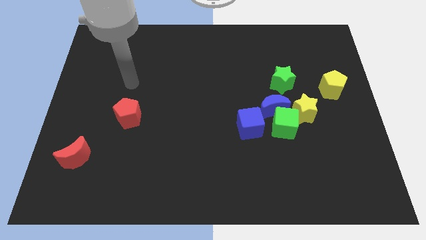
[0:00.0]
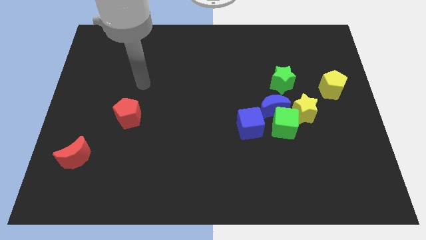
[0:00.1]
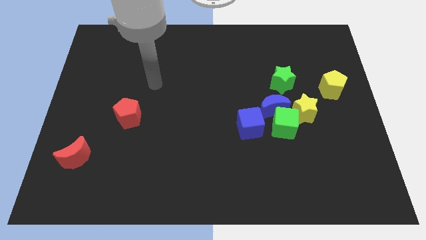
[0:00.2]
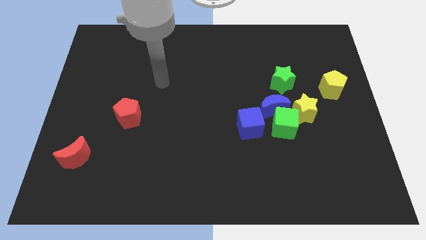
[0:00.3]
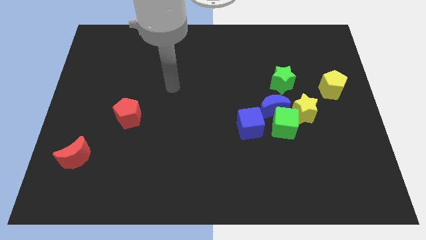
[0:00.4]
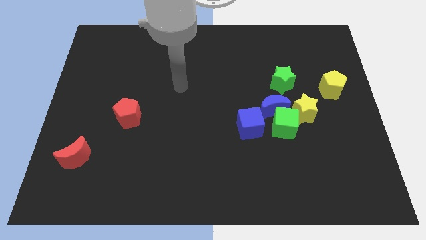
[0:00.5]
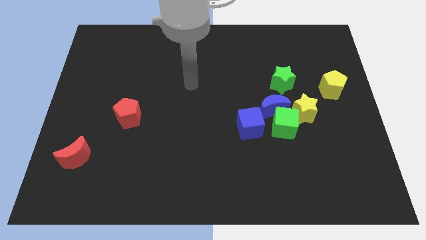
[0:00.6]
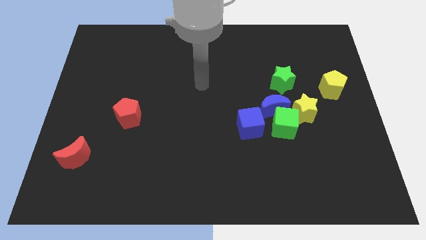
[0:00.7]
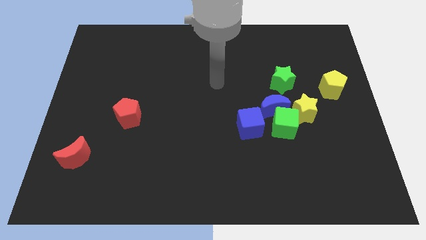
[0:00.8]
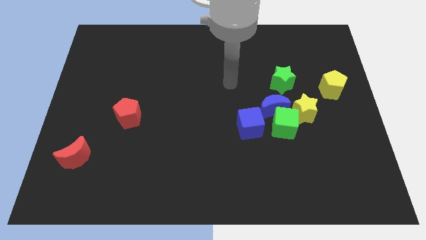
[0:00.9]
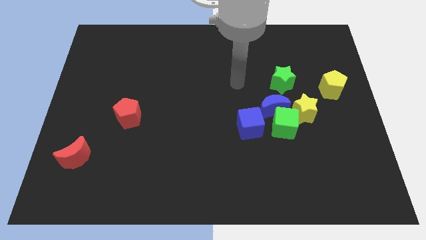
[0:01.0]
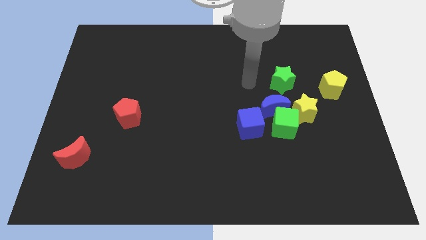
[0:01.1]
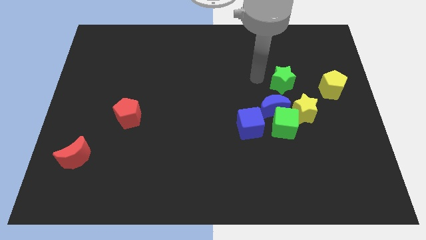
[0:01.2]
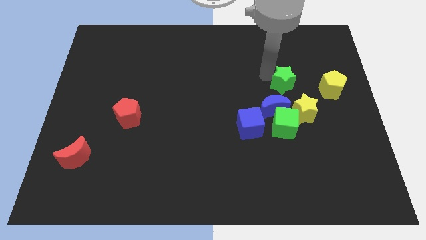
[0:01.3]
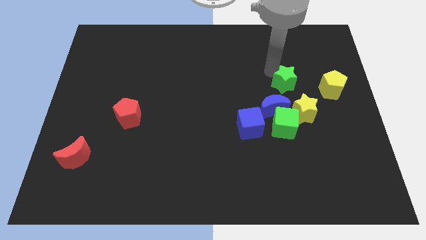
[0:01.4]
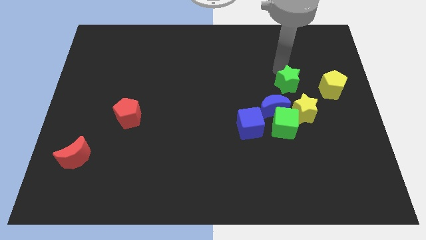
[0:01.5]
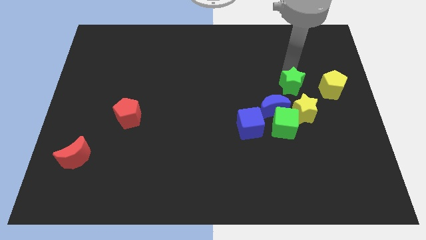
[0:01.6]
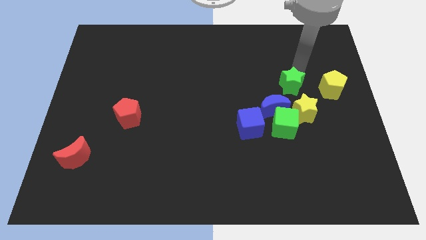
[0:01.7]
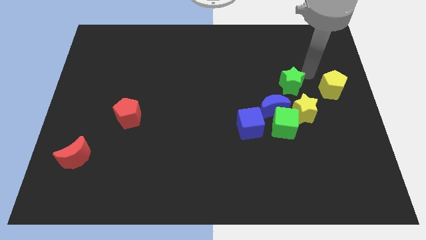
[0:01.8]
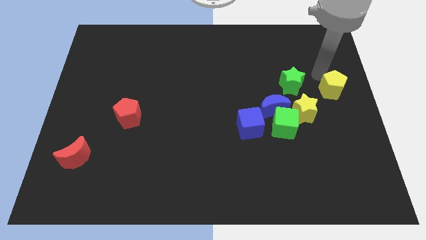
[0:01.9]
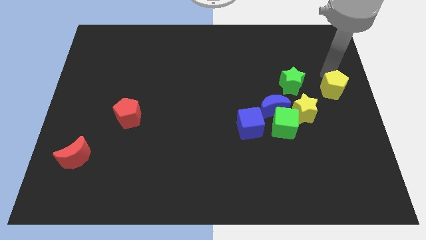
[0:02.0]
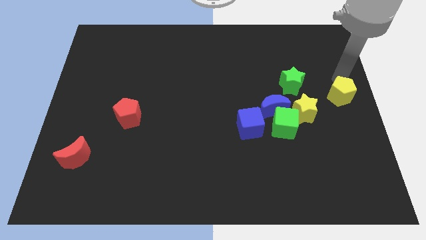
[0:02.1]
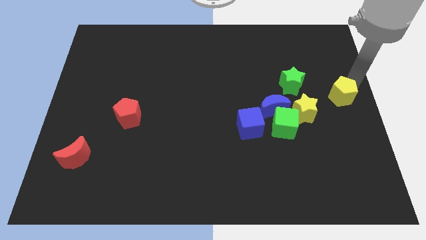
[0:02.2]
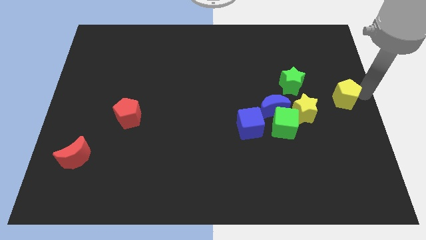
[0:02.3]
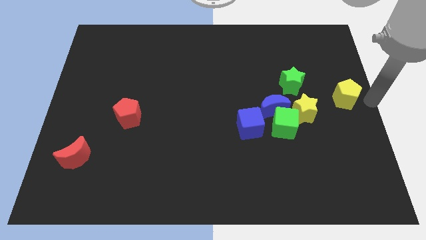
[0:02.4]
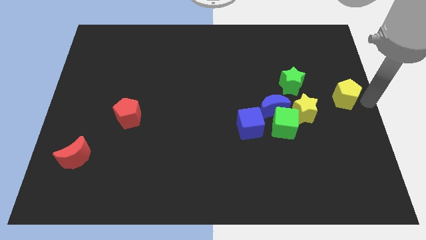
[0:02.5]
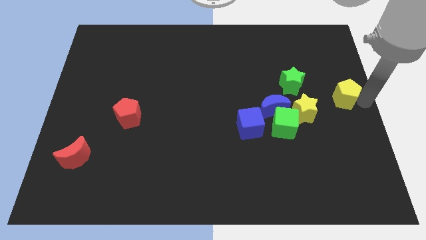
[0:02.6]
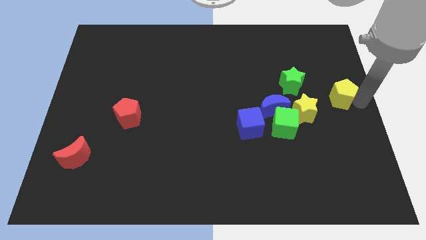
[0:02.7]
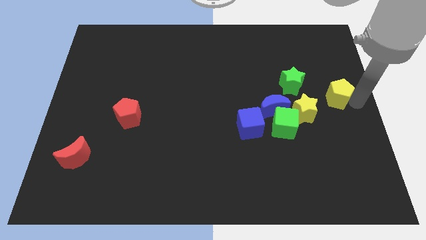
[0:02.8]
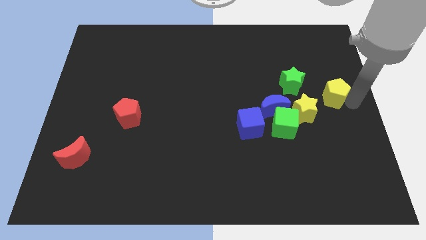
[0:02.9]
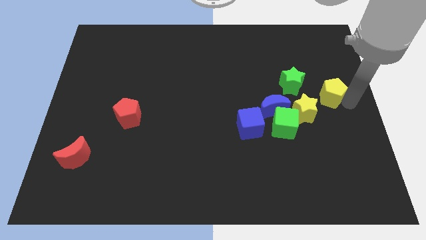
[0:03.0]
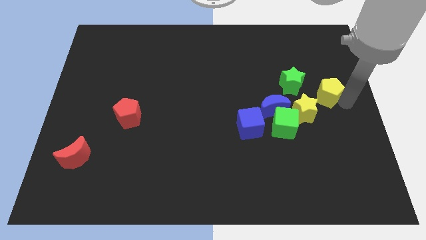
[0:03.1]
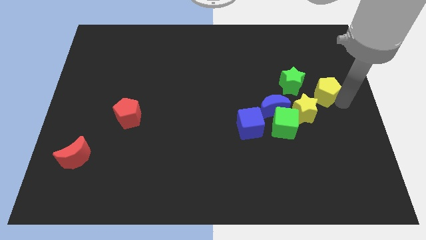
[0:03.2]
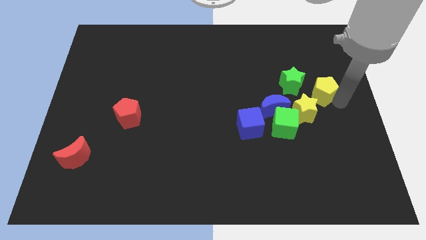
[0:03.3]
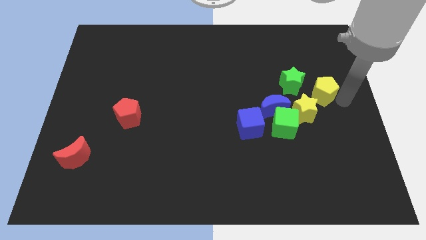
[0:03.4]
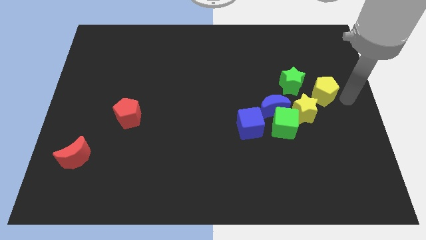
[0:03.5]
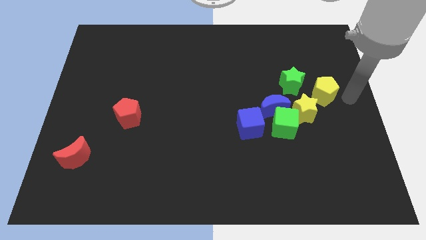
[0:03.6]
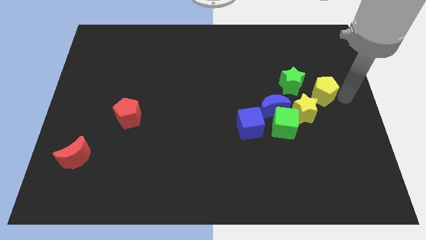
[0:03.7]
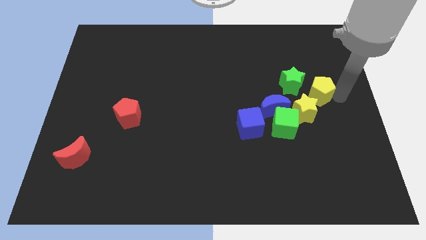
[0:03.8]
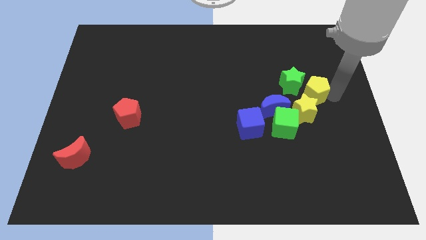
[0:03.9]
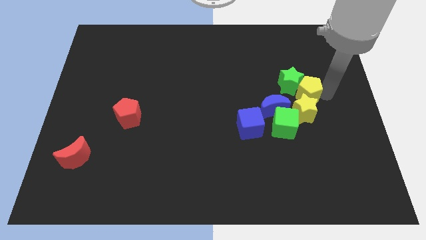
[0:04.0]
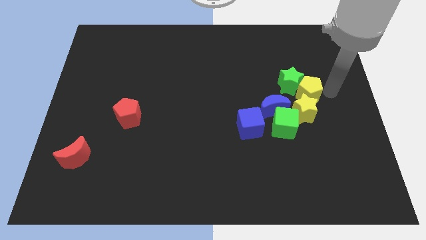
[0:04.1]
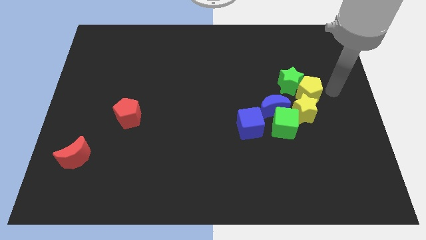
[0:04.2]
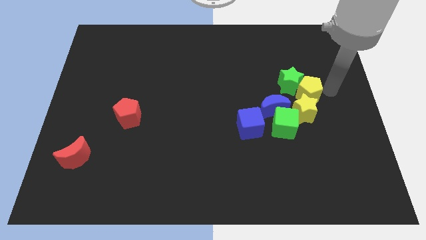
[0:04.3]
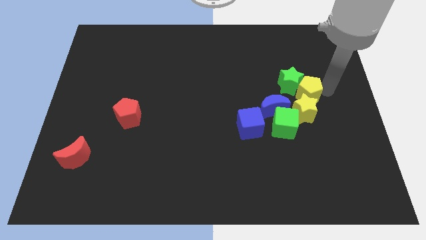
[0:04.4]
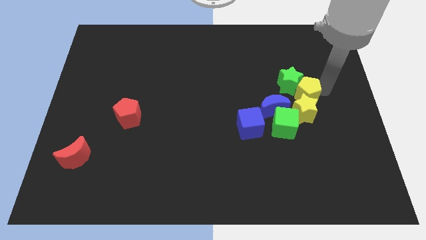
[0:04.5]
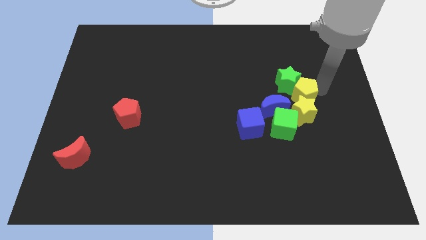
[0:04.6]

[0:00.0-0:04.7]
slide the yellow pentagon left slightly

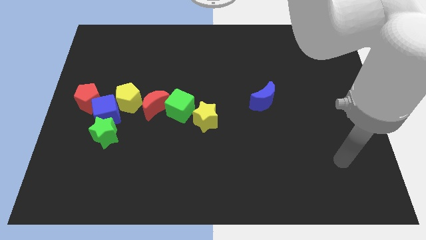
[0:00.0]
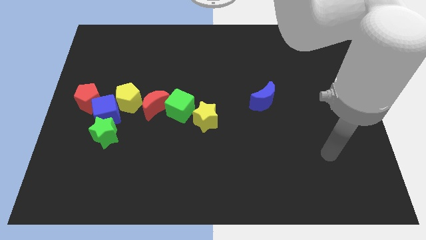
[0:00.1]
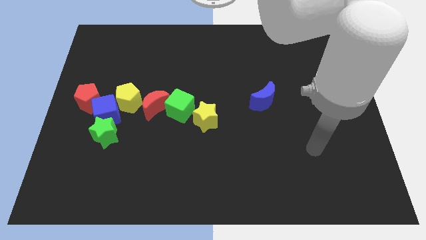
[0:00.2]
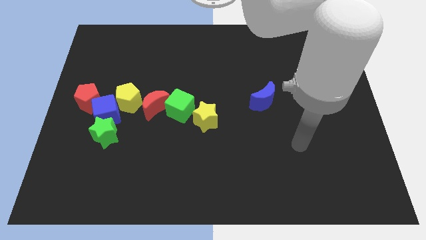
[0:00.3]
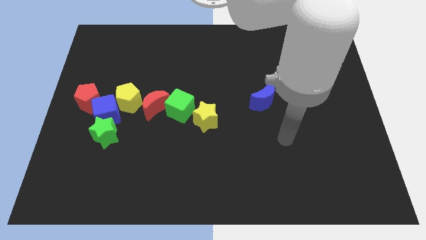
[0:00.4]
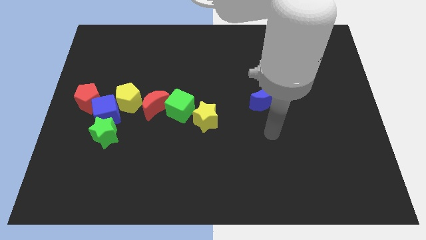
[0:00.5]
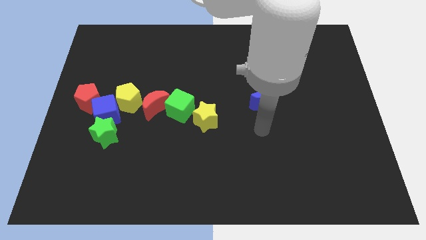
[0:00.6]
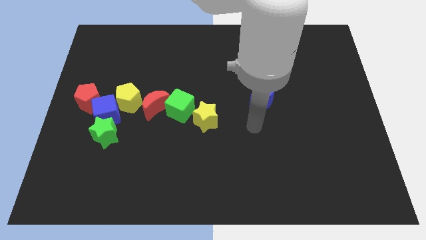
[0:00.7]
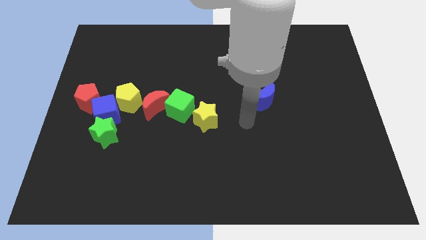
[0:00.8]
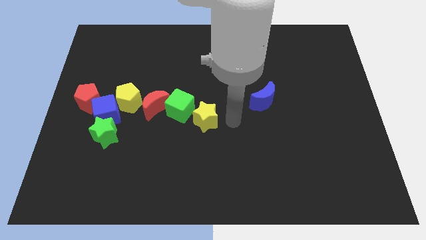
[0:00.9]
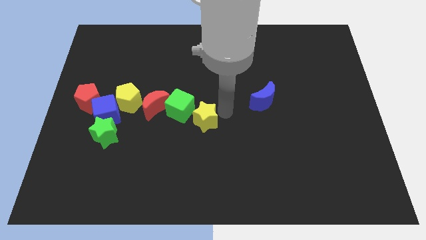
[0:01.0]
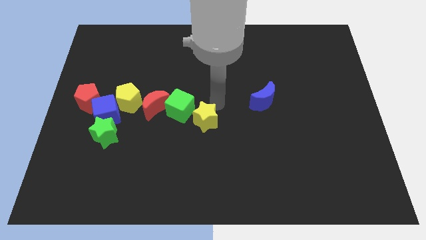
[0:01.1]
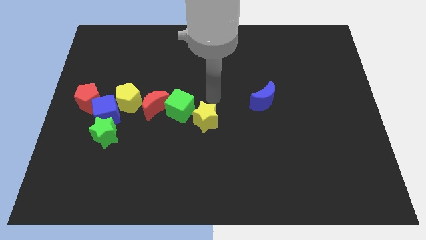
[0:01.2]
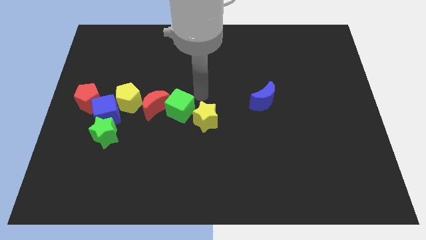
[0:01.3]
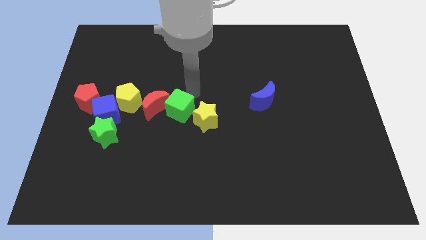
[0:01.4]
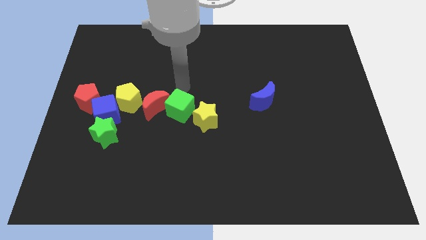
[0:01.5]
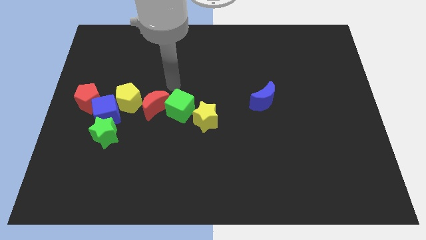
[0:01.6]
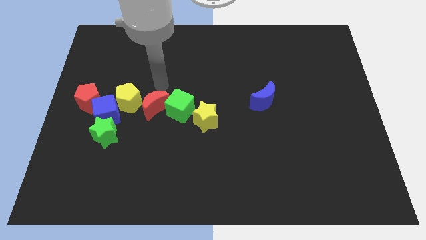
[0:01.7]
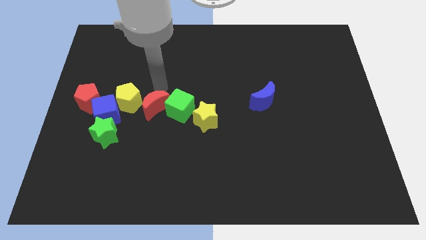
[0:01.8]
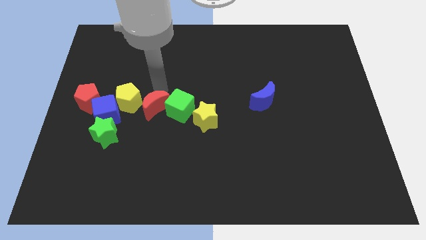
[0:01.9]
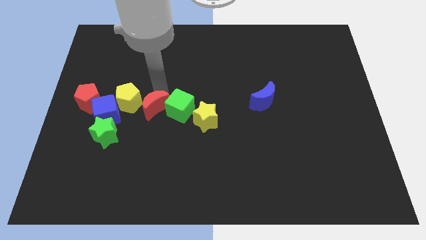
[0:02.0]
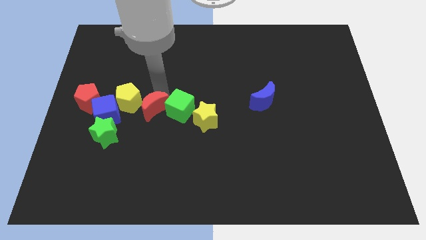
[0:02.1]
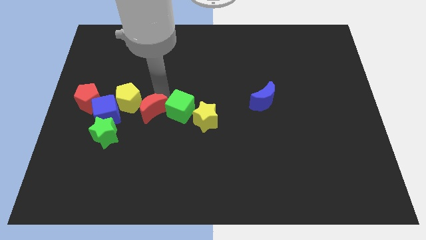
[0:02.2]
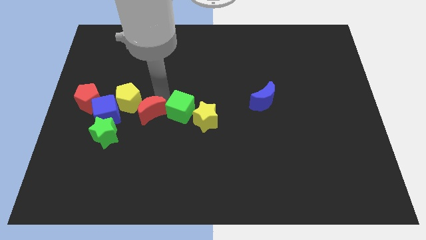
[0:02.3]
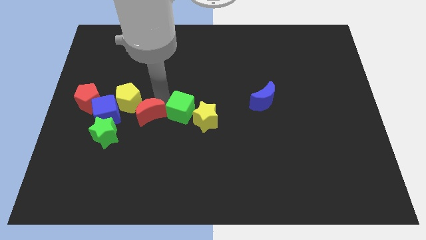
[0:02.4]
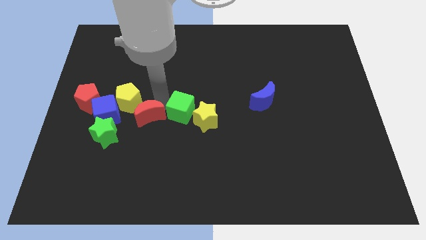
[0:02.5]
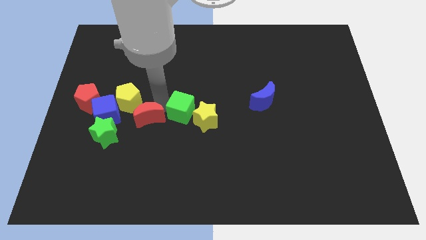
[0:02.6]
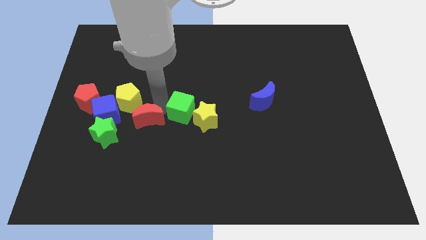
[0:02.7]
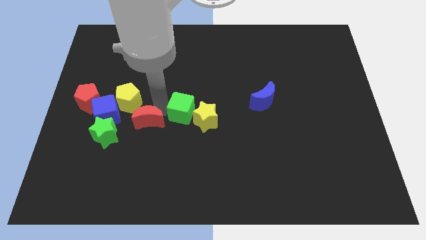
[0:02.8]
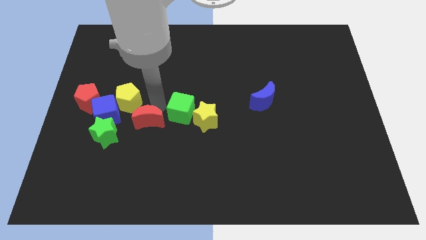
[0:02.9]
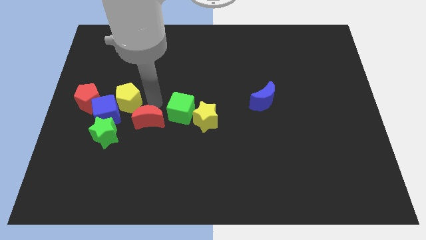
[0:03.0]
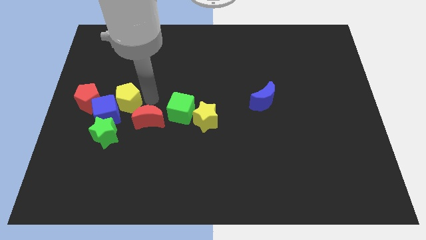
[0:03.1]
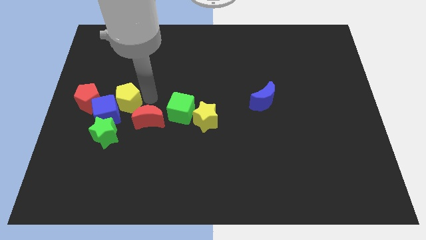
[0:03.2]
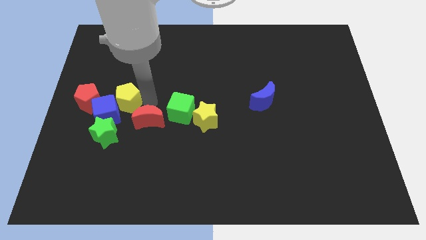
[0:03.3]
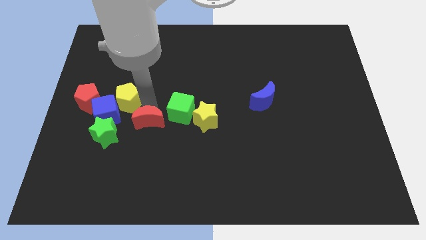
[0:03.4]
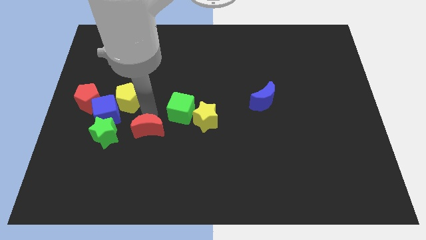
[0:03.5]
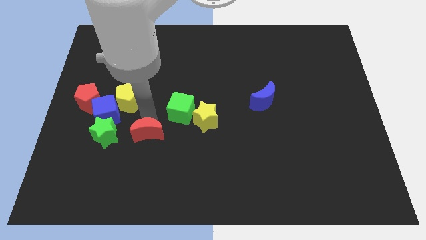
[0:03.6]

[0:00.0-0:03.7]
slightly push the red moon downwards

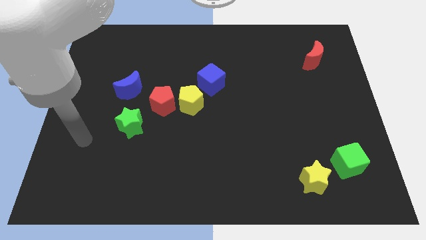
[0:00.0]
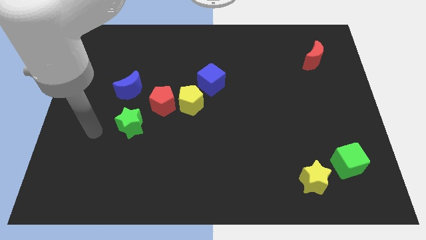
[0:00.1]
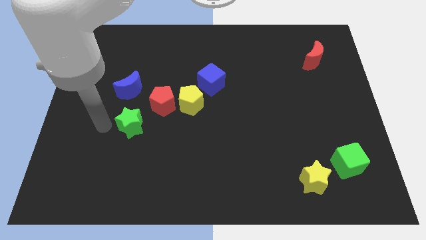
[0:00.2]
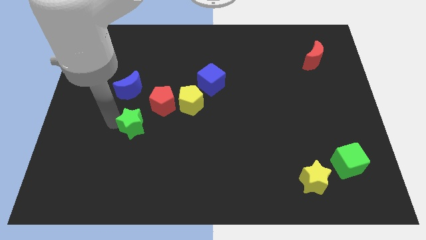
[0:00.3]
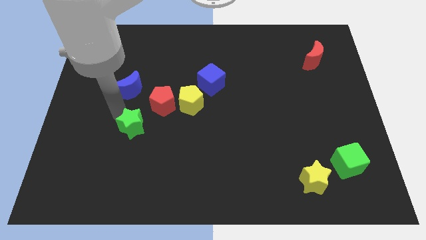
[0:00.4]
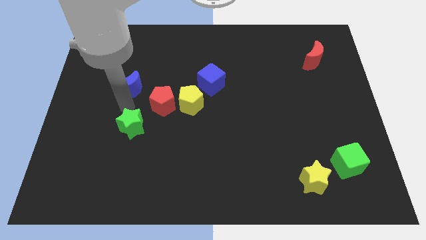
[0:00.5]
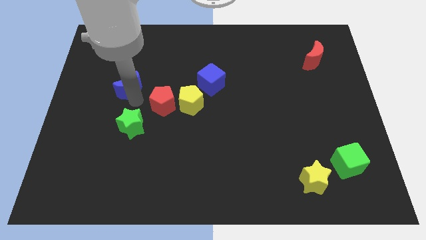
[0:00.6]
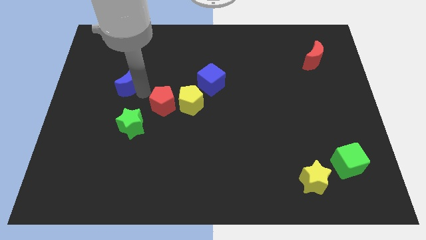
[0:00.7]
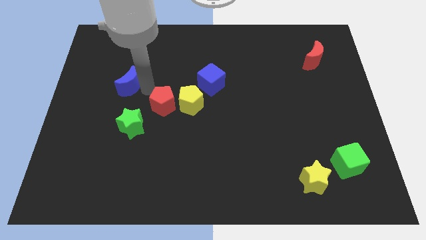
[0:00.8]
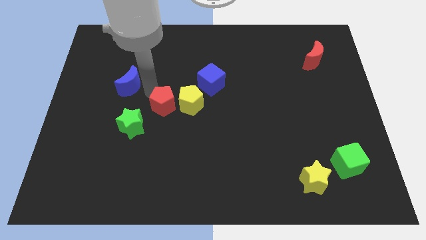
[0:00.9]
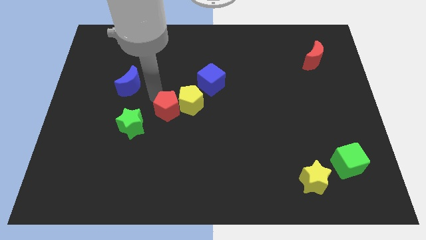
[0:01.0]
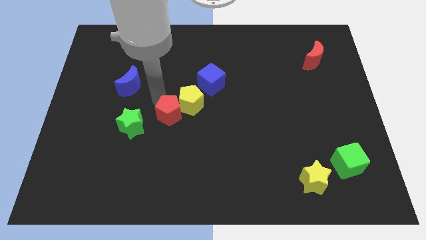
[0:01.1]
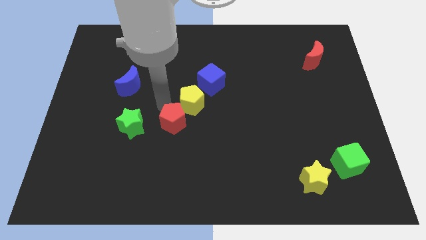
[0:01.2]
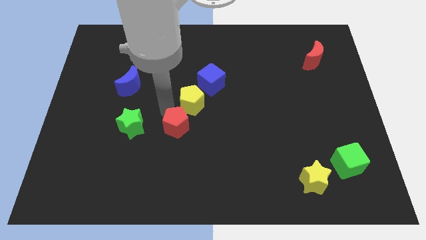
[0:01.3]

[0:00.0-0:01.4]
slide the red pentagon slightly down and to the right
